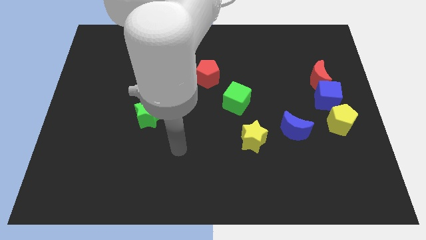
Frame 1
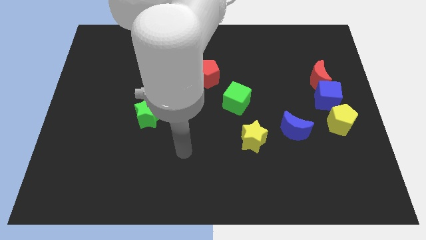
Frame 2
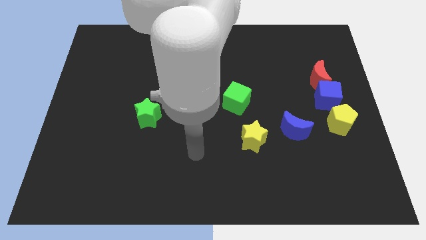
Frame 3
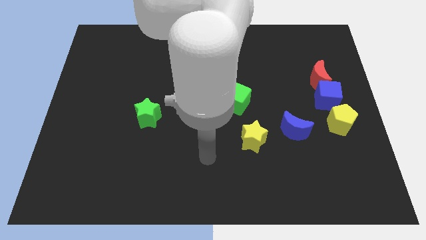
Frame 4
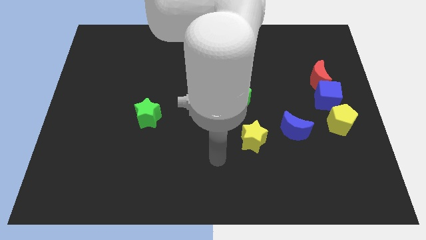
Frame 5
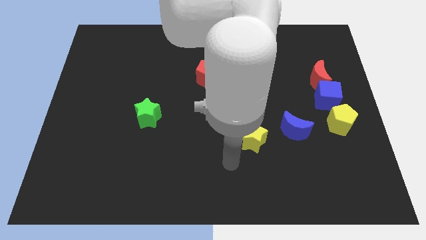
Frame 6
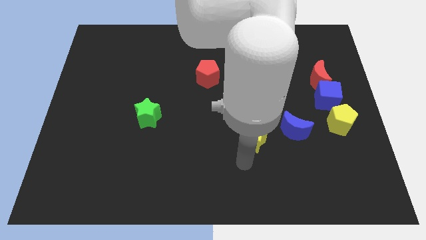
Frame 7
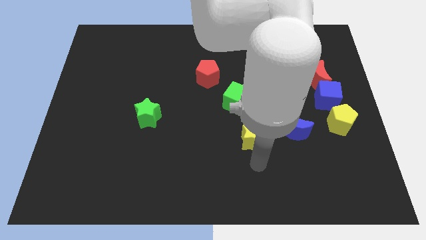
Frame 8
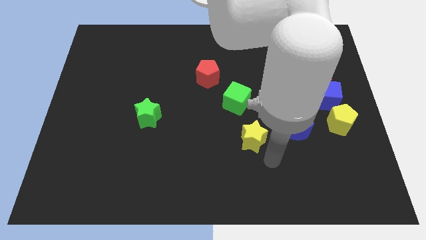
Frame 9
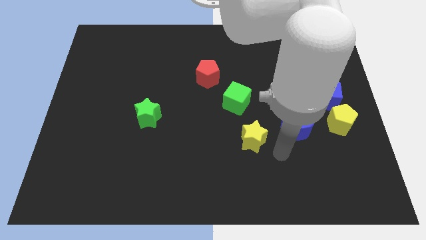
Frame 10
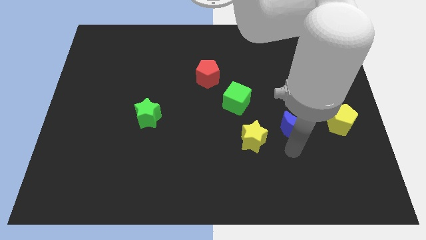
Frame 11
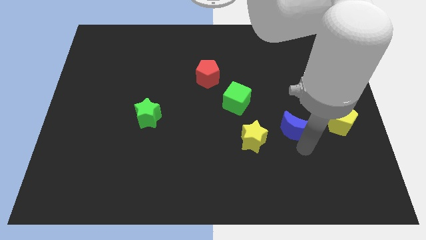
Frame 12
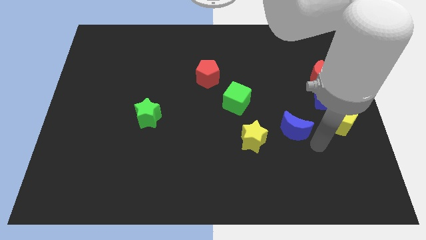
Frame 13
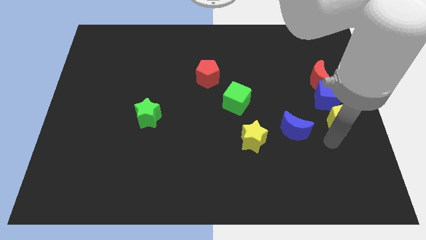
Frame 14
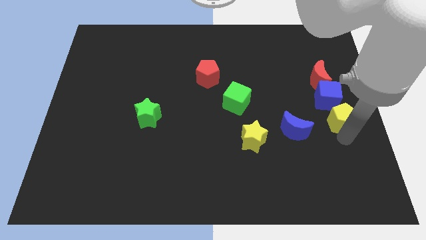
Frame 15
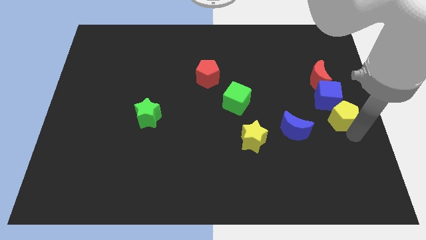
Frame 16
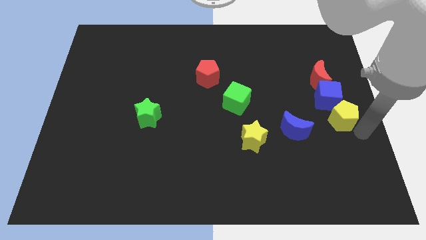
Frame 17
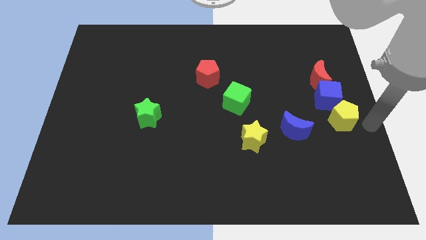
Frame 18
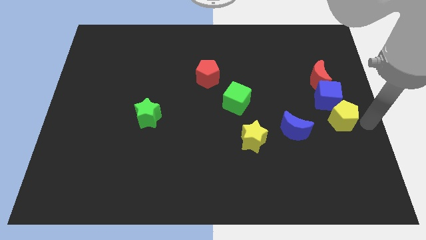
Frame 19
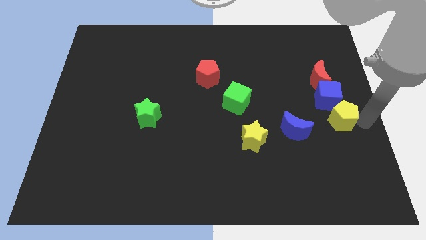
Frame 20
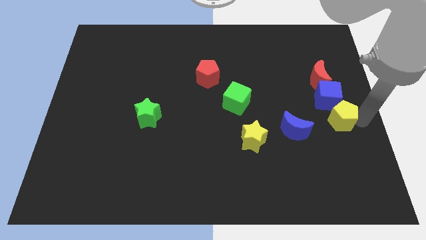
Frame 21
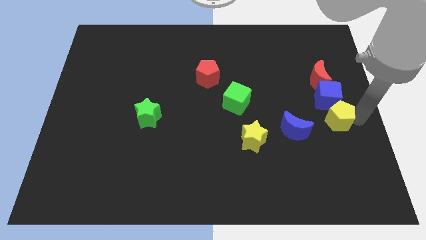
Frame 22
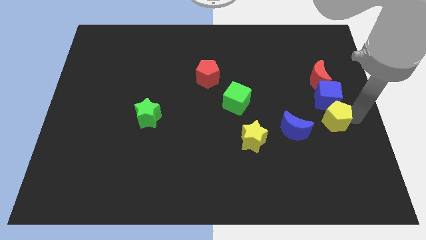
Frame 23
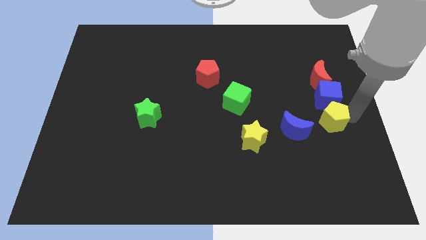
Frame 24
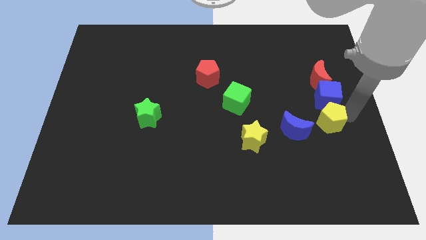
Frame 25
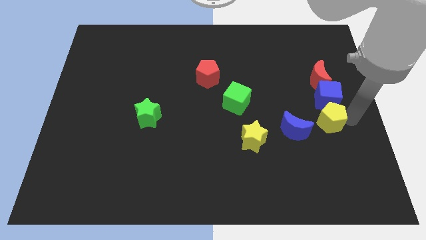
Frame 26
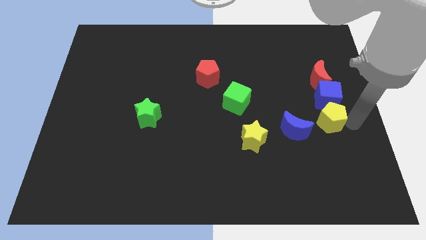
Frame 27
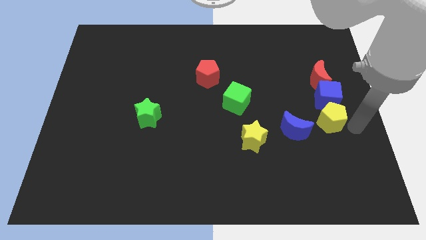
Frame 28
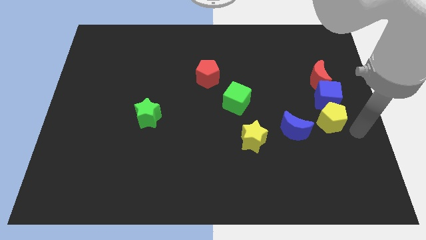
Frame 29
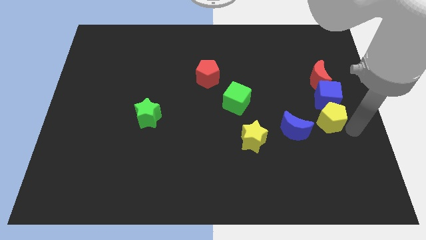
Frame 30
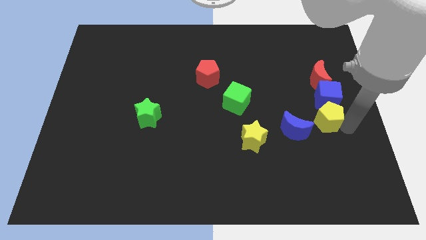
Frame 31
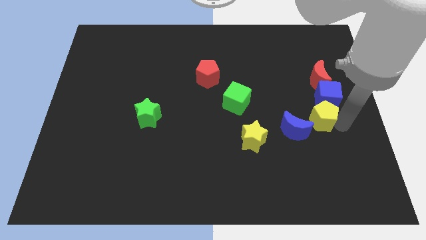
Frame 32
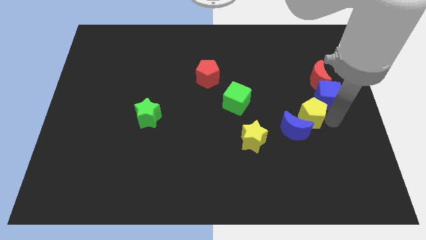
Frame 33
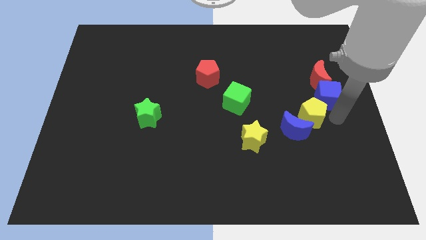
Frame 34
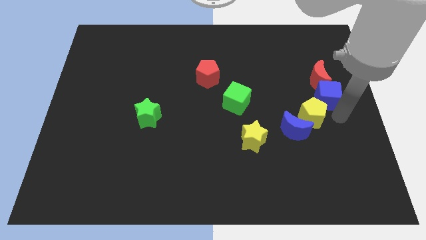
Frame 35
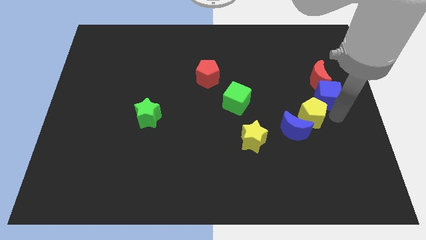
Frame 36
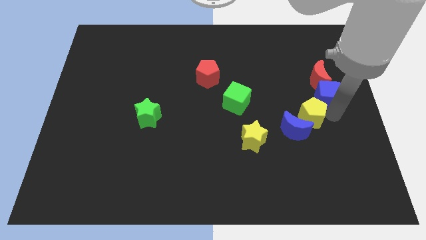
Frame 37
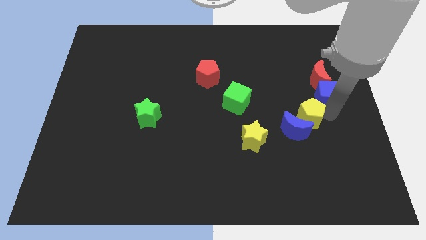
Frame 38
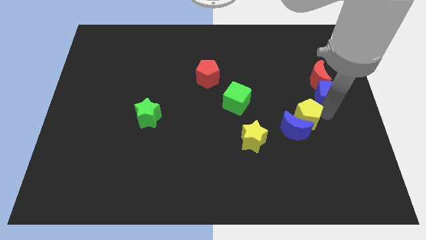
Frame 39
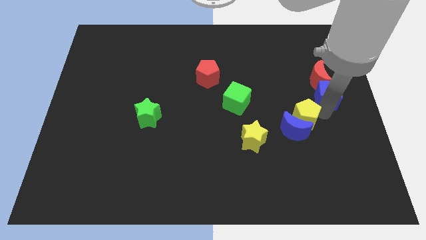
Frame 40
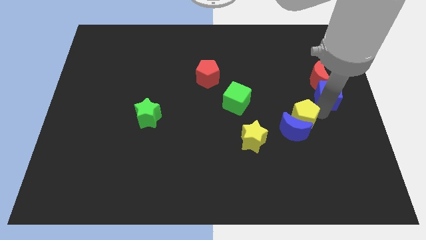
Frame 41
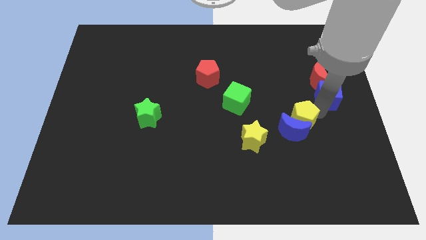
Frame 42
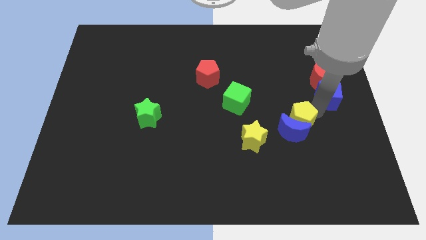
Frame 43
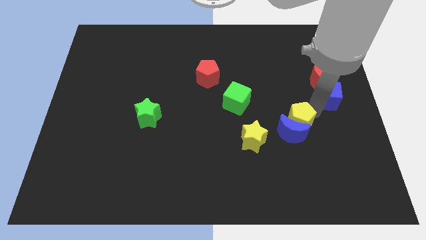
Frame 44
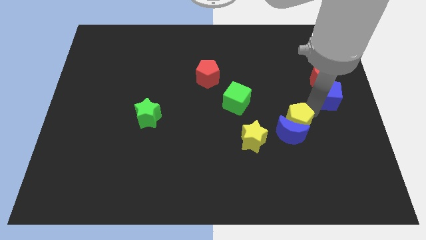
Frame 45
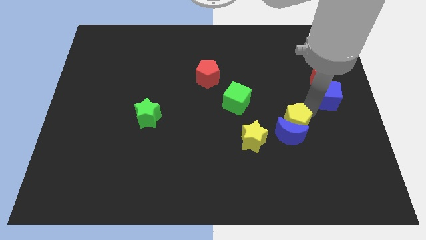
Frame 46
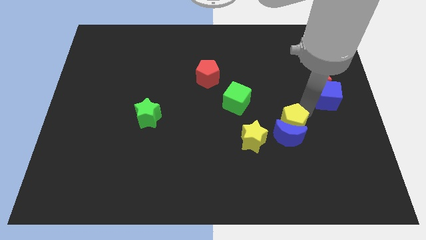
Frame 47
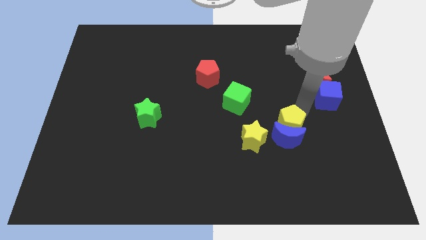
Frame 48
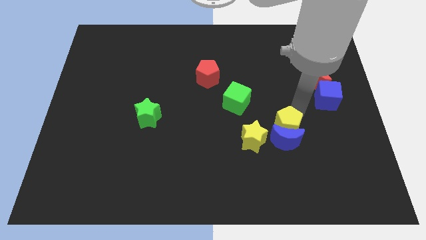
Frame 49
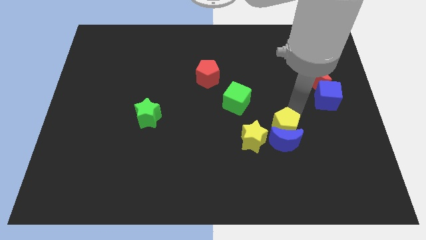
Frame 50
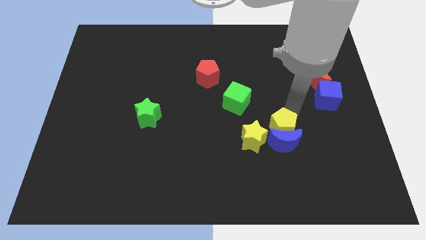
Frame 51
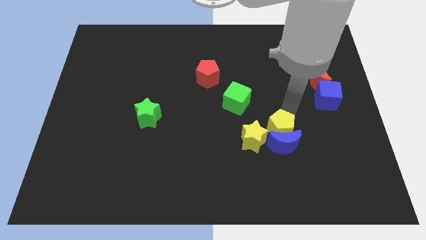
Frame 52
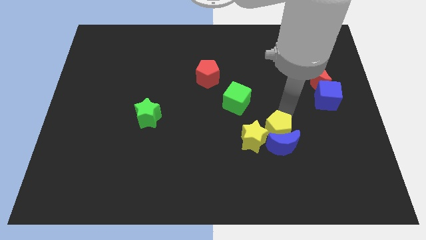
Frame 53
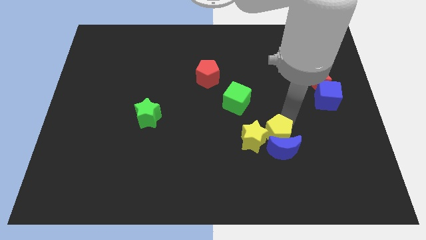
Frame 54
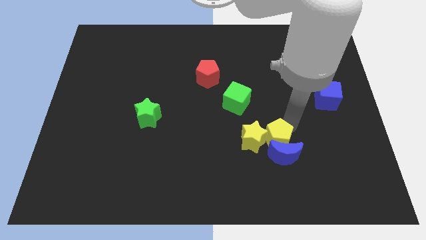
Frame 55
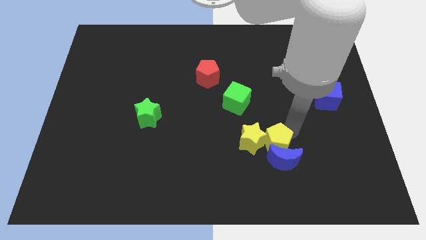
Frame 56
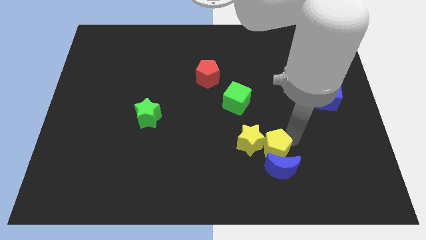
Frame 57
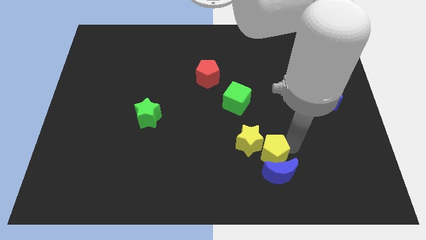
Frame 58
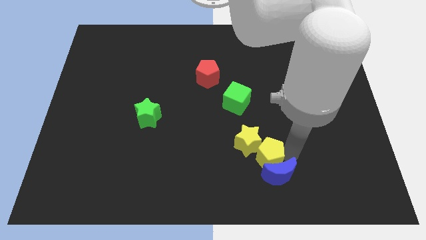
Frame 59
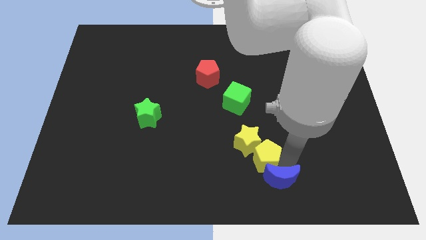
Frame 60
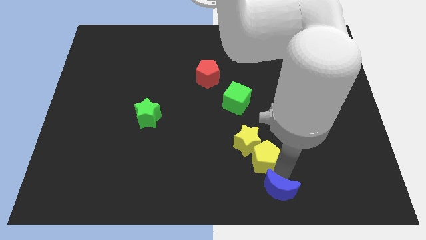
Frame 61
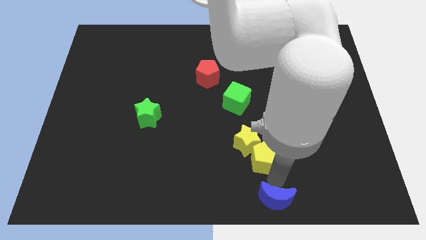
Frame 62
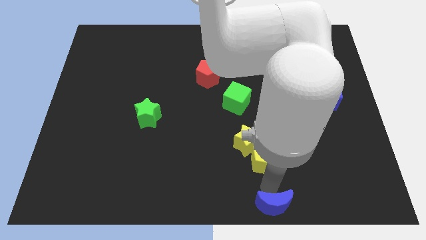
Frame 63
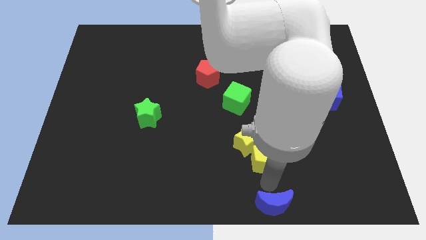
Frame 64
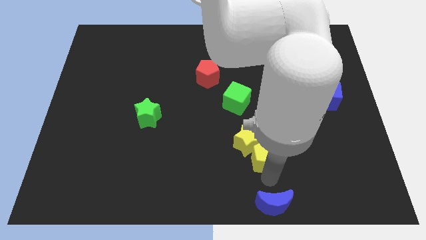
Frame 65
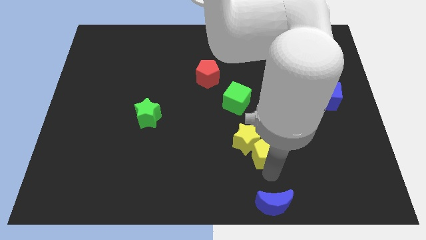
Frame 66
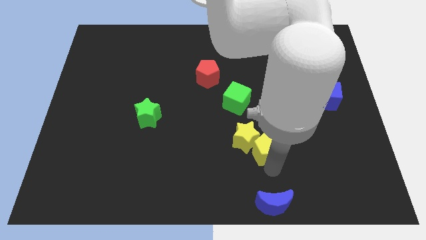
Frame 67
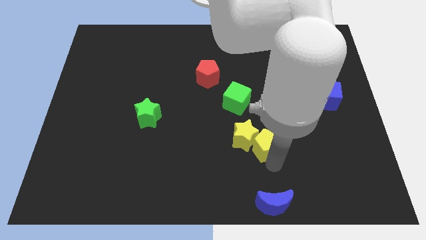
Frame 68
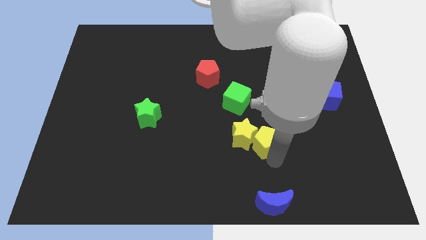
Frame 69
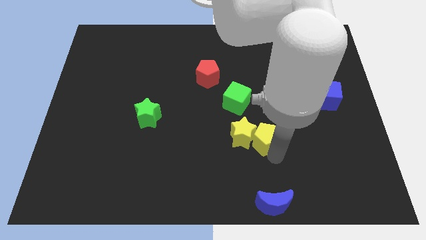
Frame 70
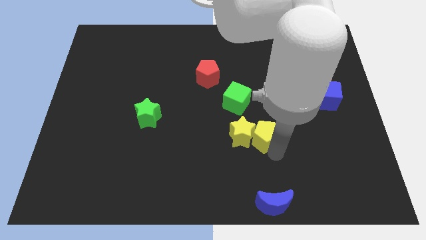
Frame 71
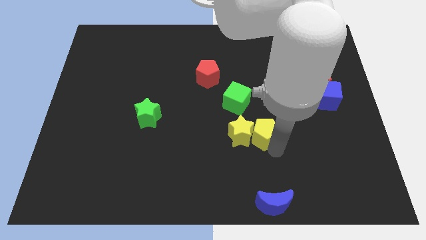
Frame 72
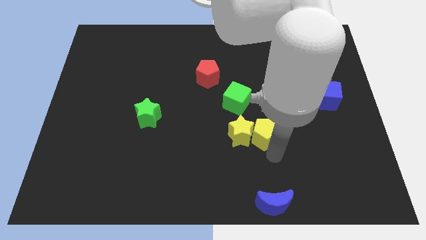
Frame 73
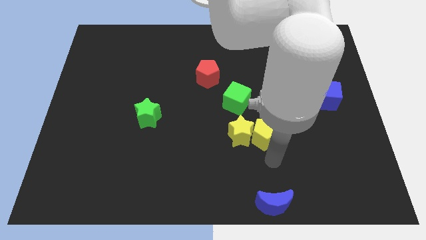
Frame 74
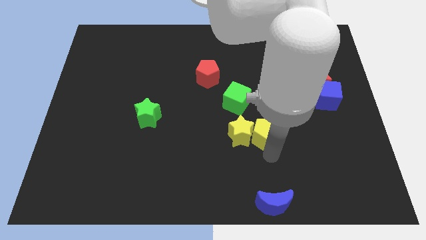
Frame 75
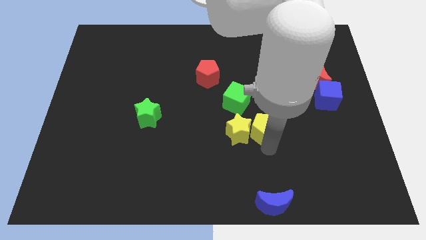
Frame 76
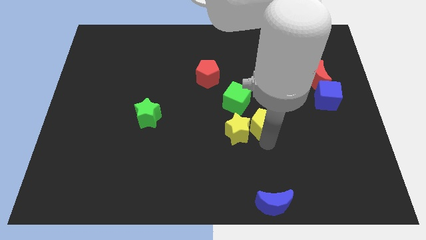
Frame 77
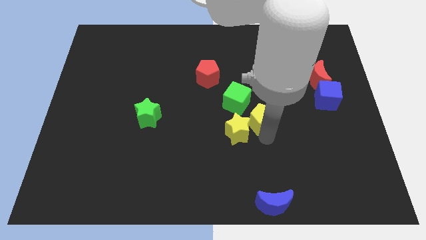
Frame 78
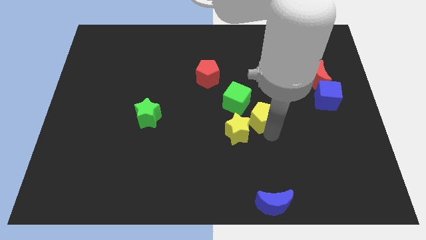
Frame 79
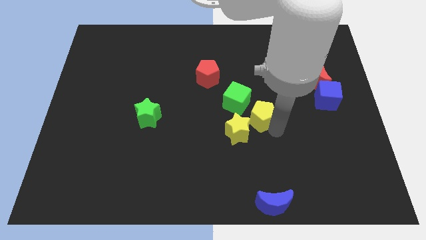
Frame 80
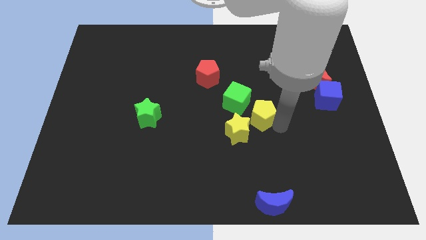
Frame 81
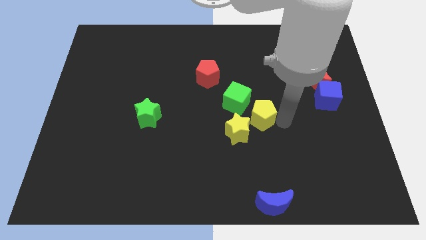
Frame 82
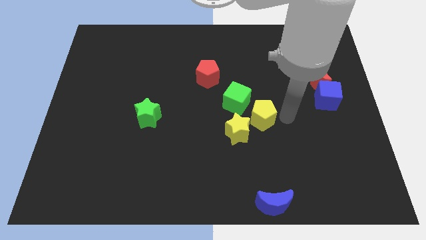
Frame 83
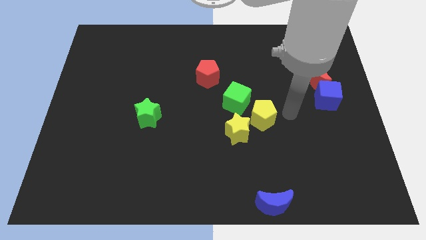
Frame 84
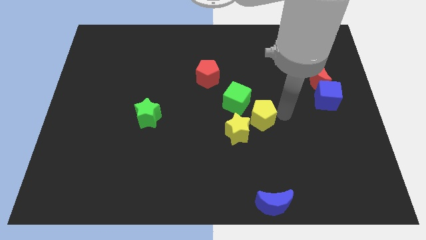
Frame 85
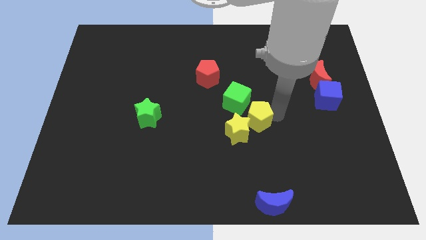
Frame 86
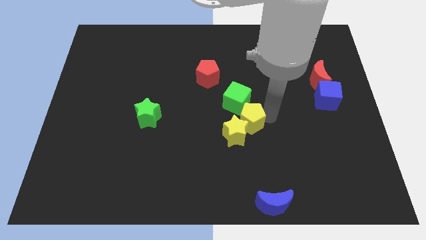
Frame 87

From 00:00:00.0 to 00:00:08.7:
slide the yellow pentagon to the left
